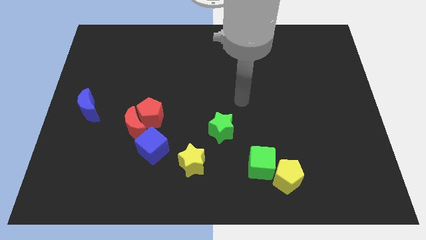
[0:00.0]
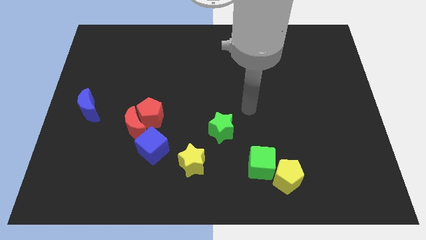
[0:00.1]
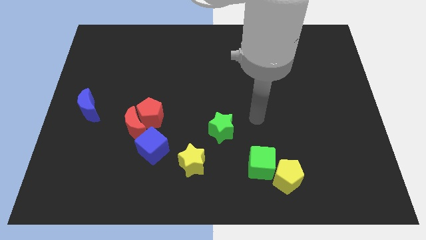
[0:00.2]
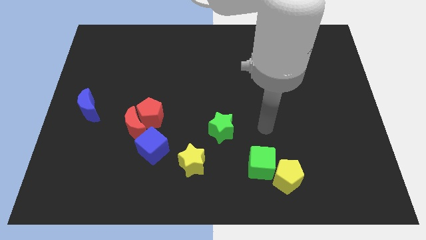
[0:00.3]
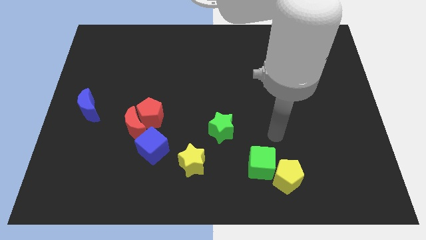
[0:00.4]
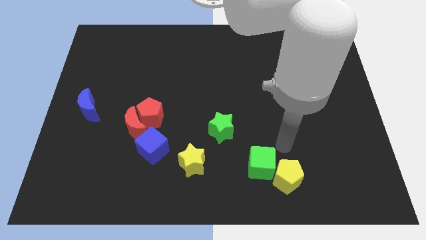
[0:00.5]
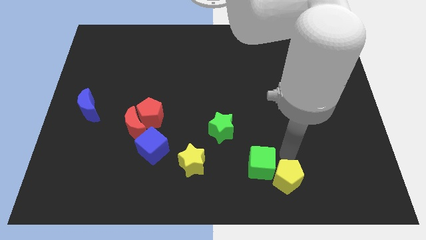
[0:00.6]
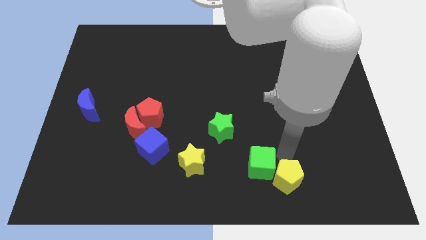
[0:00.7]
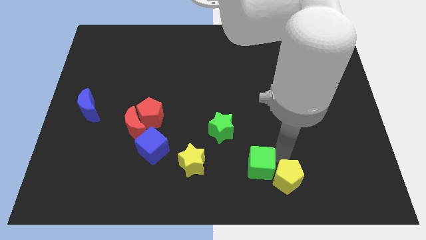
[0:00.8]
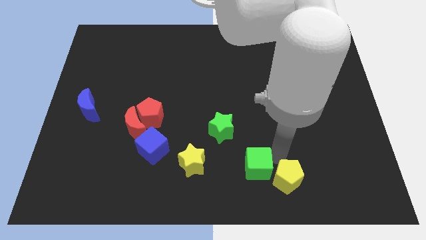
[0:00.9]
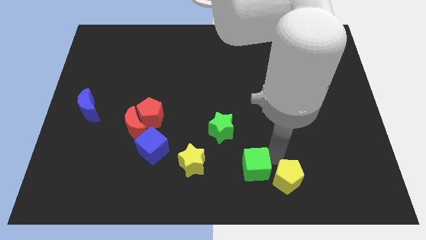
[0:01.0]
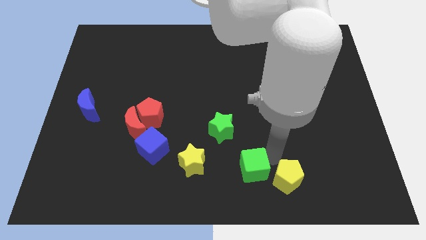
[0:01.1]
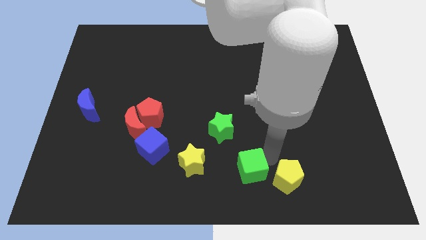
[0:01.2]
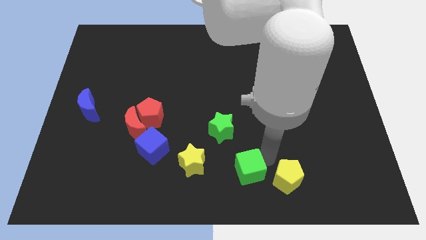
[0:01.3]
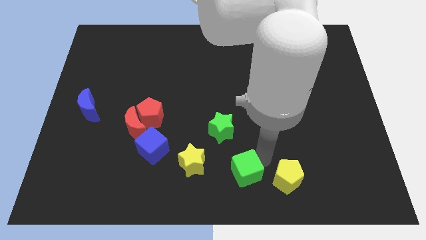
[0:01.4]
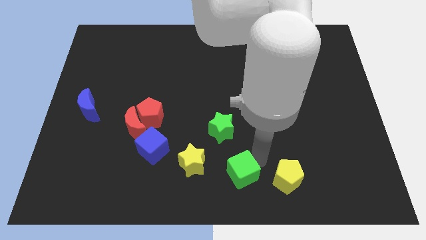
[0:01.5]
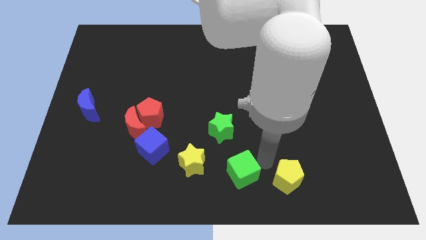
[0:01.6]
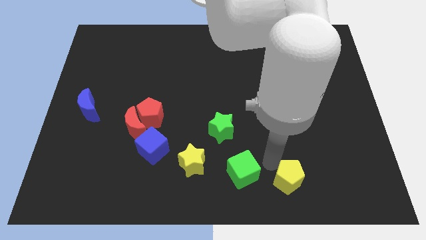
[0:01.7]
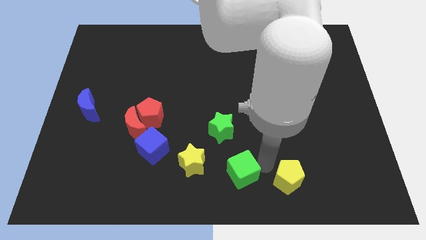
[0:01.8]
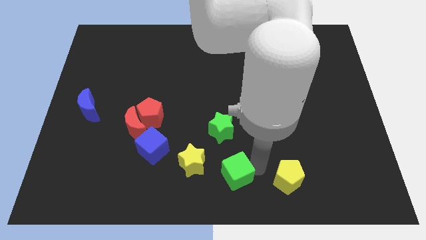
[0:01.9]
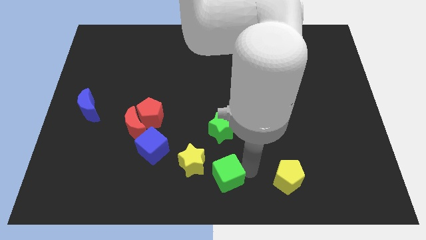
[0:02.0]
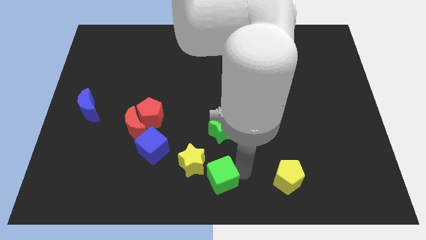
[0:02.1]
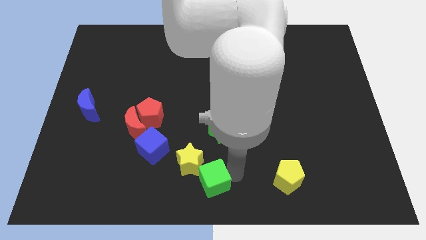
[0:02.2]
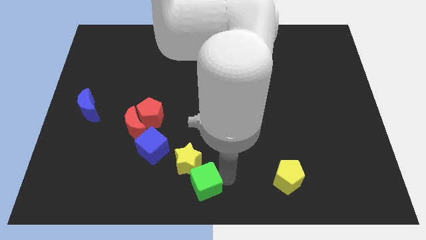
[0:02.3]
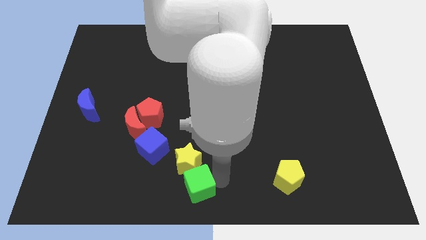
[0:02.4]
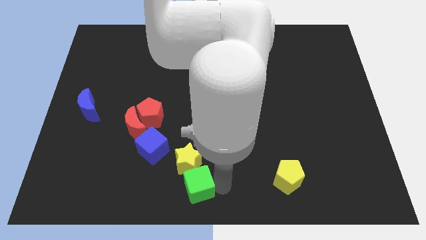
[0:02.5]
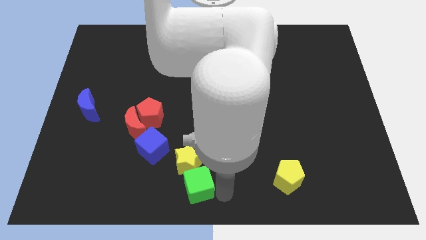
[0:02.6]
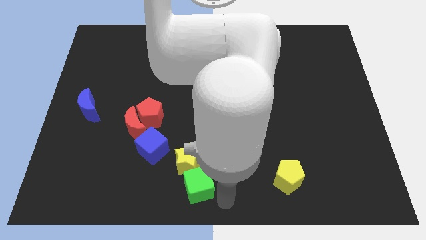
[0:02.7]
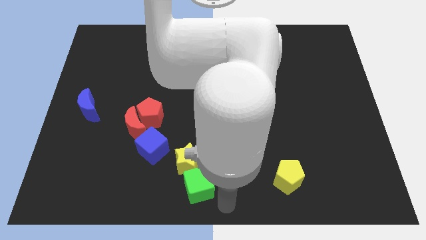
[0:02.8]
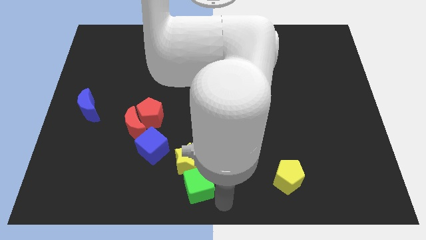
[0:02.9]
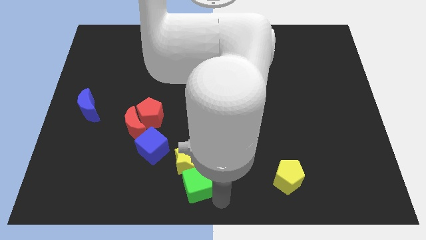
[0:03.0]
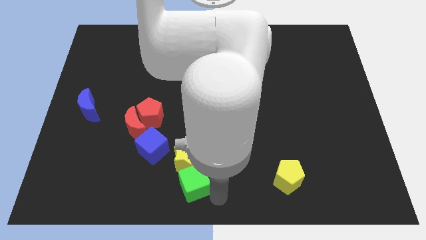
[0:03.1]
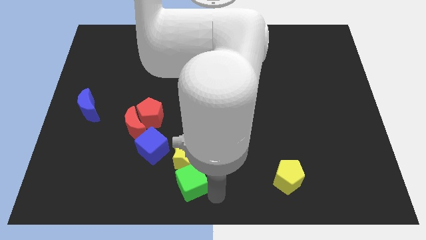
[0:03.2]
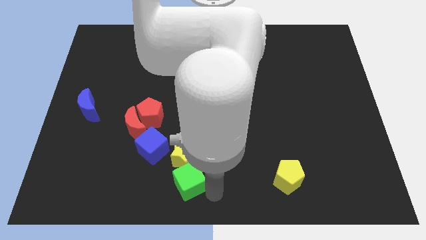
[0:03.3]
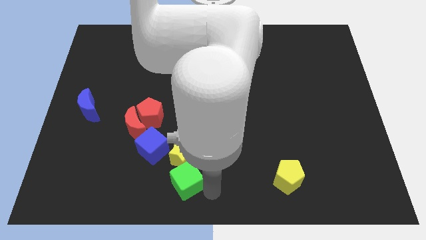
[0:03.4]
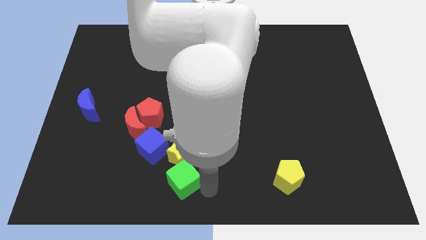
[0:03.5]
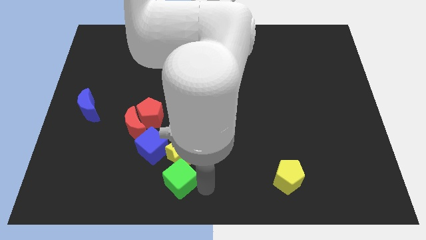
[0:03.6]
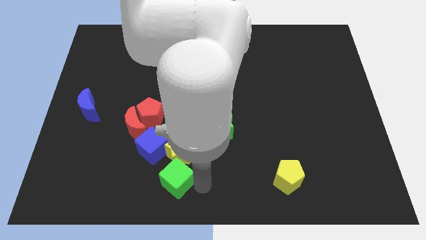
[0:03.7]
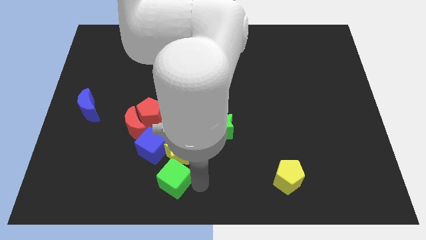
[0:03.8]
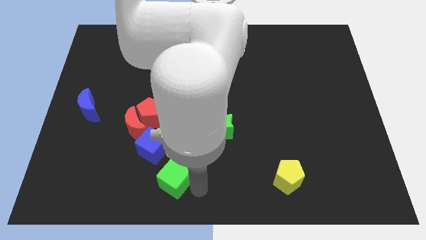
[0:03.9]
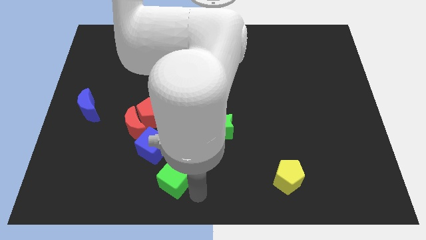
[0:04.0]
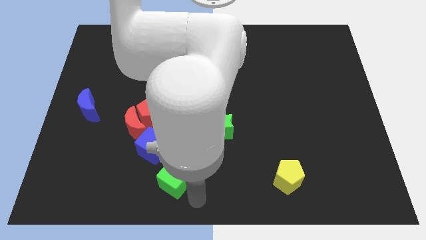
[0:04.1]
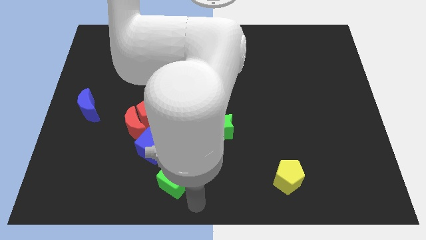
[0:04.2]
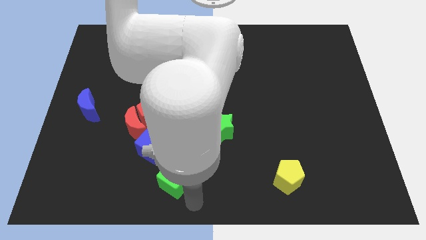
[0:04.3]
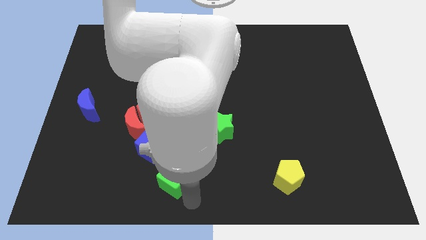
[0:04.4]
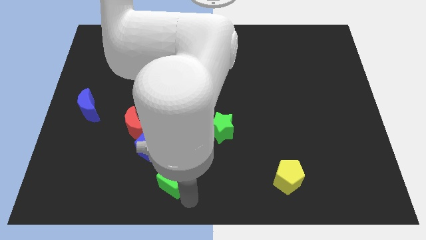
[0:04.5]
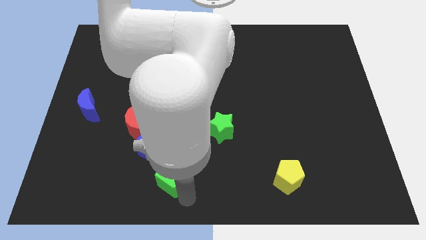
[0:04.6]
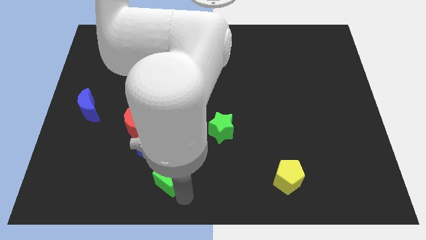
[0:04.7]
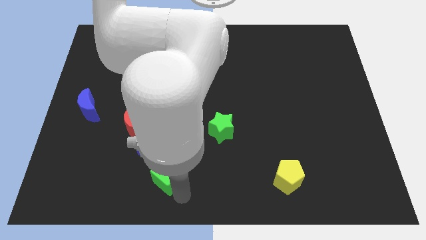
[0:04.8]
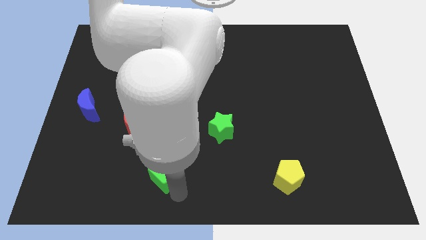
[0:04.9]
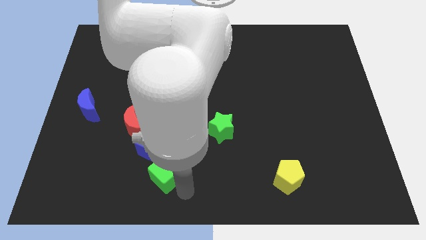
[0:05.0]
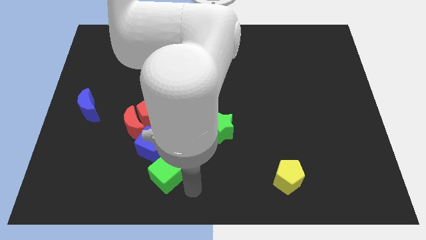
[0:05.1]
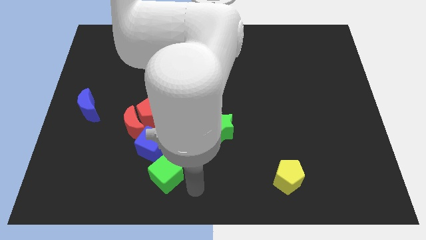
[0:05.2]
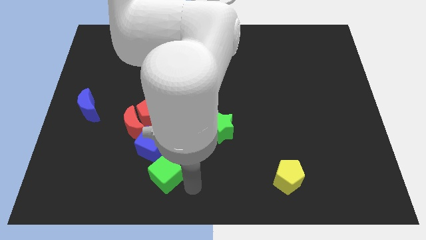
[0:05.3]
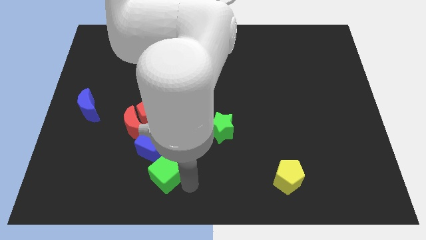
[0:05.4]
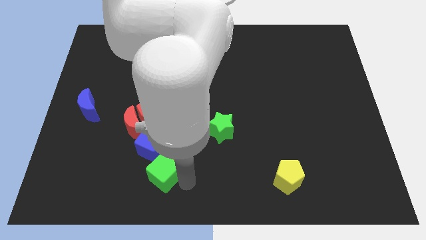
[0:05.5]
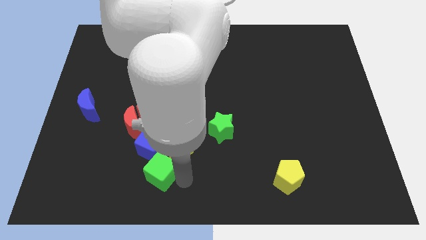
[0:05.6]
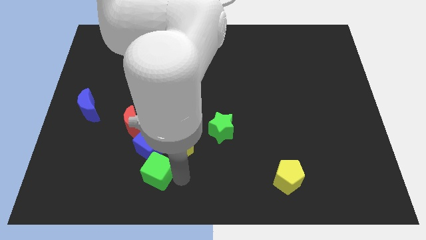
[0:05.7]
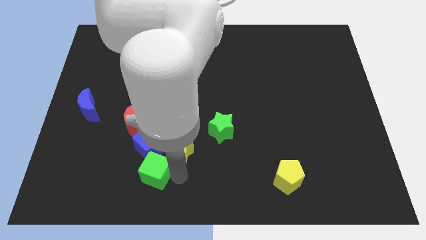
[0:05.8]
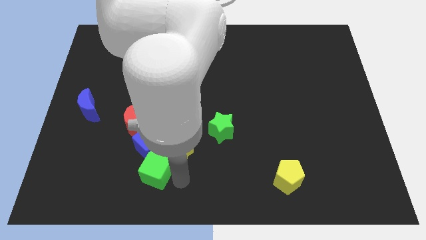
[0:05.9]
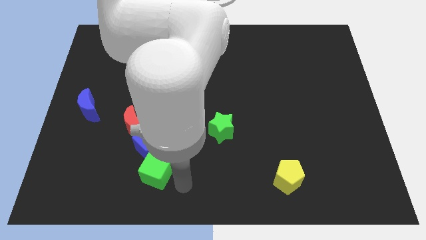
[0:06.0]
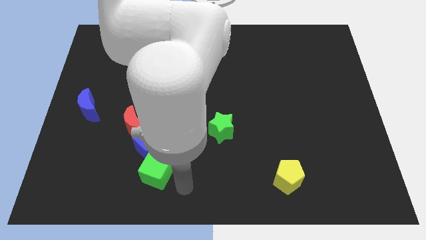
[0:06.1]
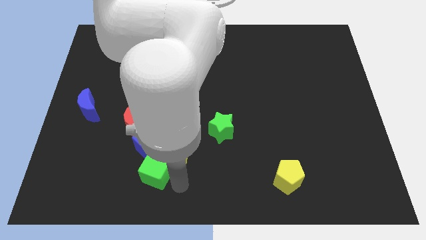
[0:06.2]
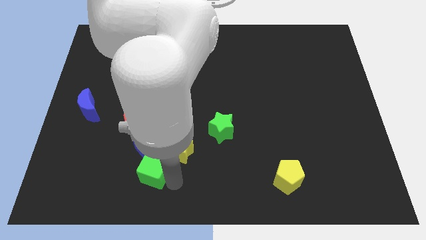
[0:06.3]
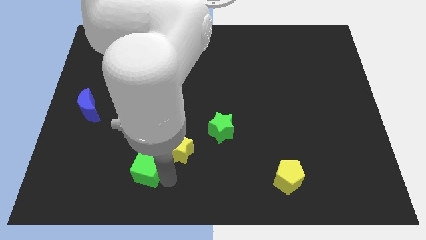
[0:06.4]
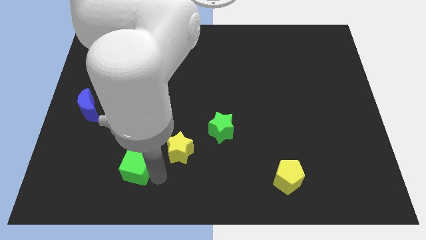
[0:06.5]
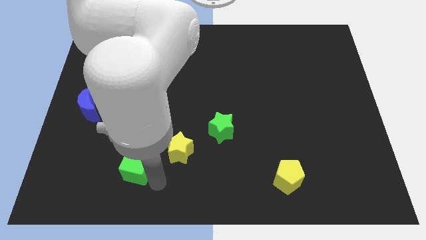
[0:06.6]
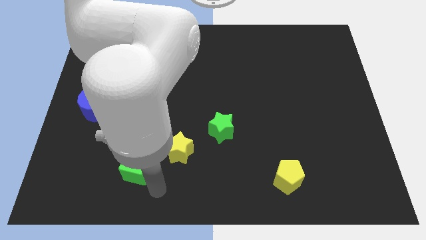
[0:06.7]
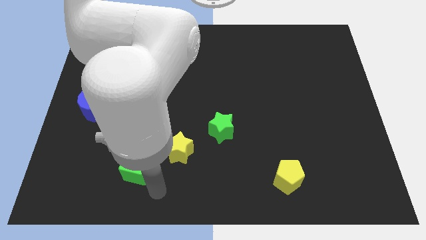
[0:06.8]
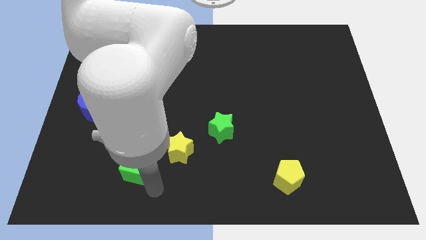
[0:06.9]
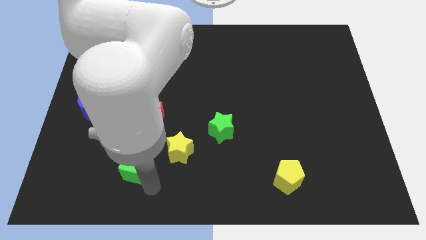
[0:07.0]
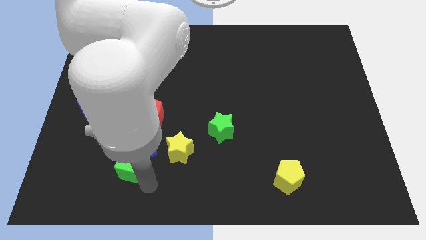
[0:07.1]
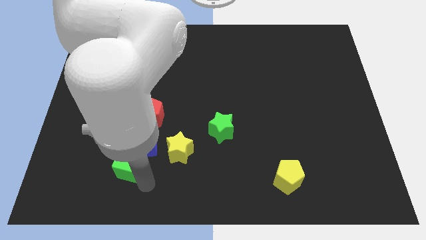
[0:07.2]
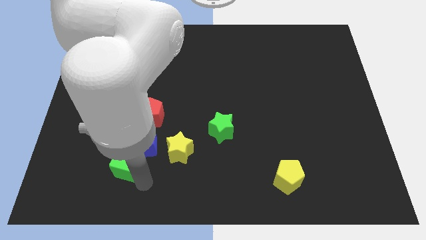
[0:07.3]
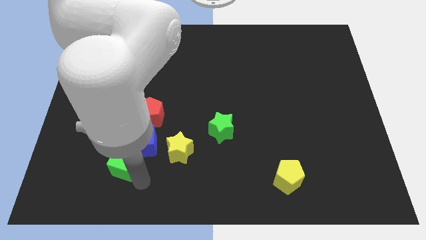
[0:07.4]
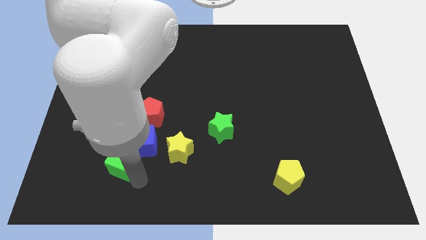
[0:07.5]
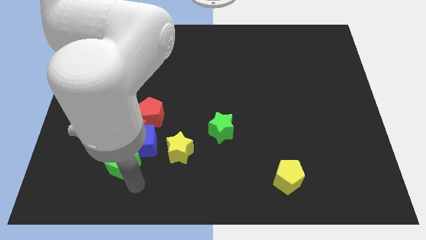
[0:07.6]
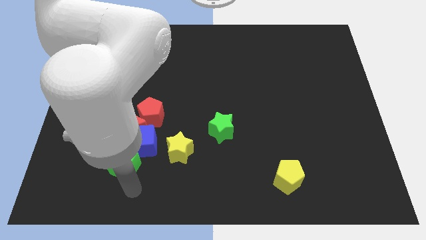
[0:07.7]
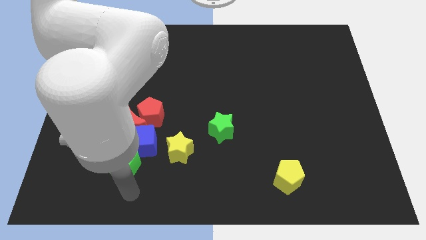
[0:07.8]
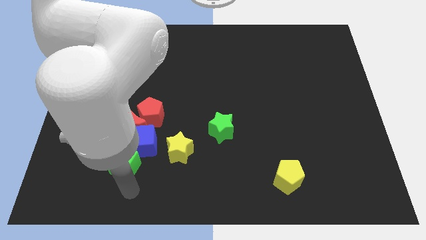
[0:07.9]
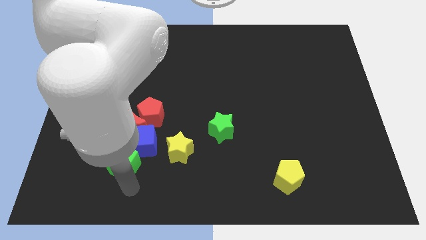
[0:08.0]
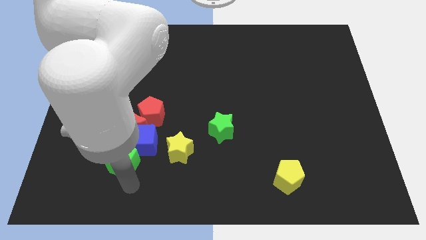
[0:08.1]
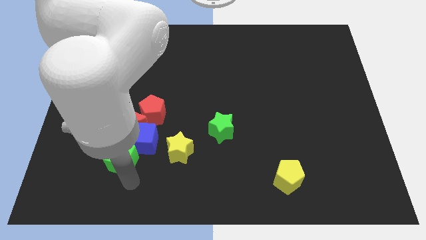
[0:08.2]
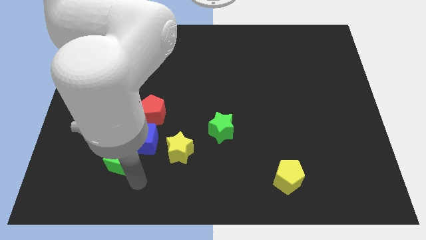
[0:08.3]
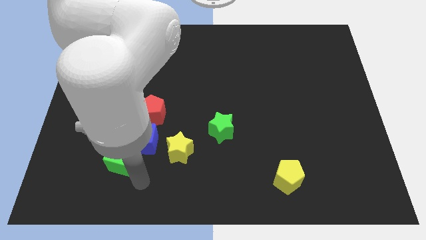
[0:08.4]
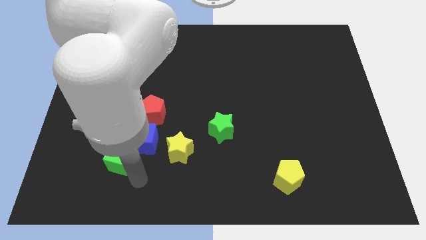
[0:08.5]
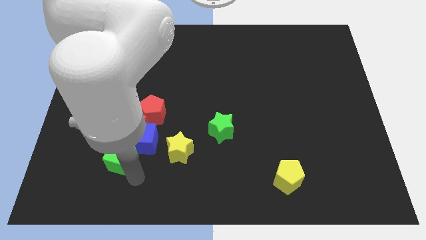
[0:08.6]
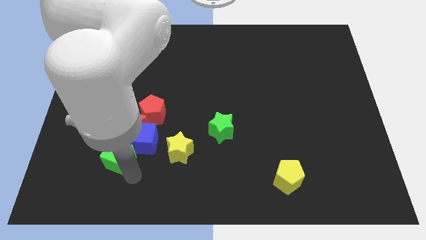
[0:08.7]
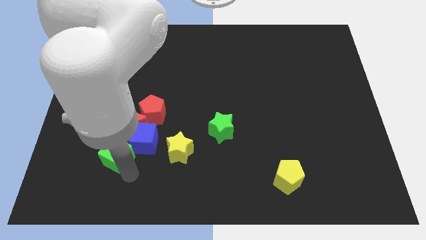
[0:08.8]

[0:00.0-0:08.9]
put the green cube diagonally down and to the left of the red moon
